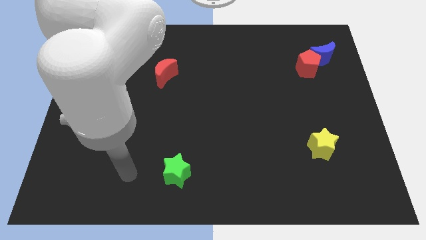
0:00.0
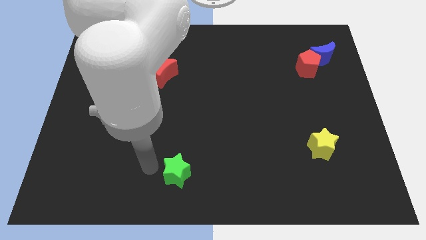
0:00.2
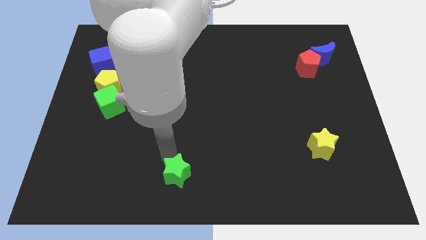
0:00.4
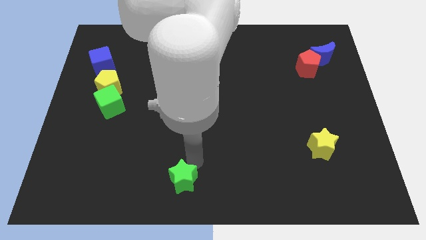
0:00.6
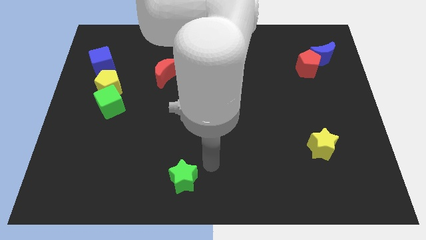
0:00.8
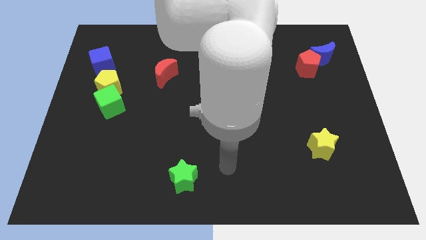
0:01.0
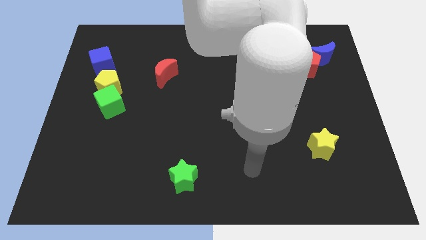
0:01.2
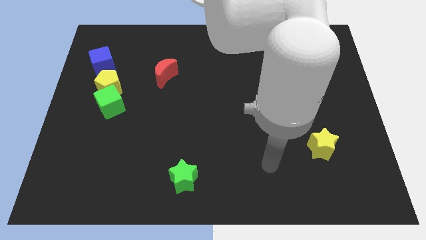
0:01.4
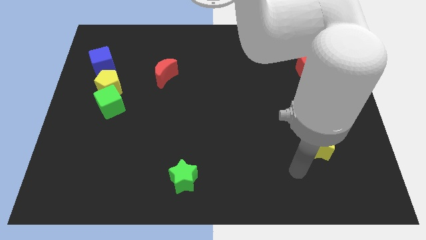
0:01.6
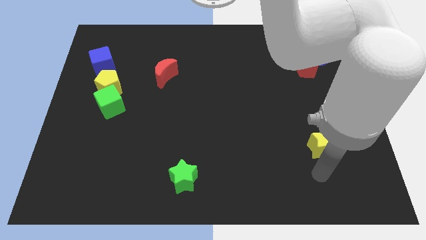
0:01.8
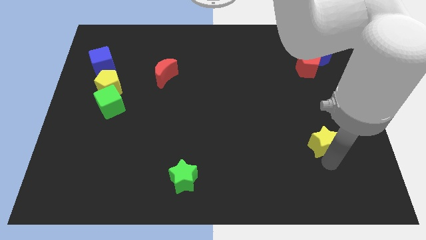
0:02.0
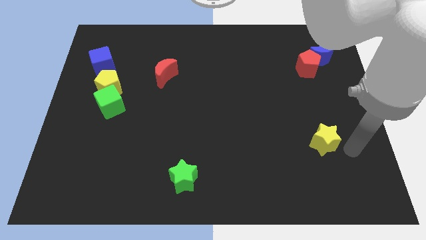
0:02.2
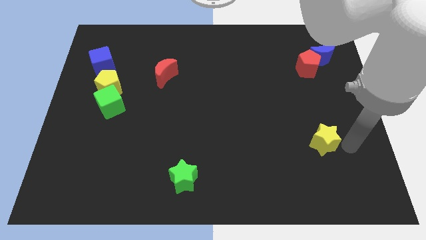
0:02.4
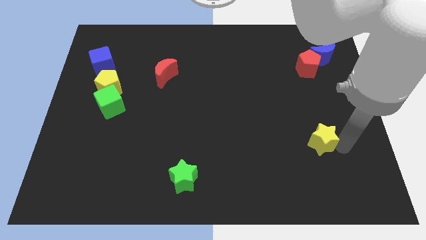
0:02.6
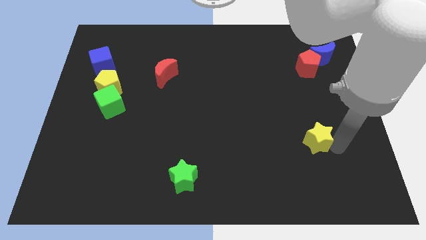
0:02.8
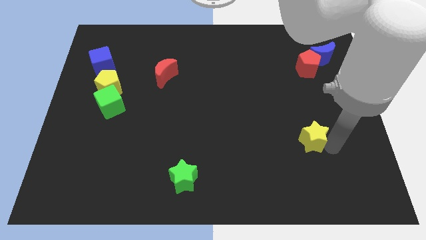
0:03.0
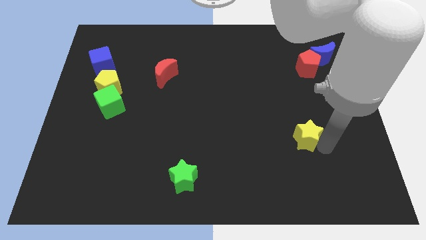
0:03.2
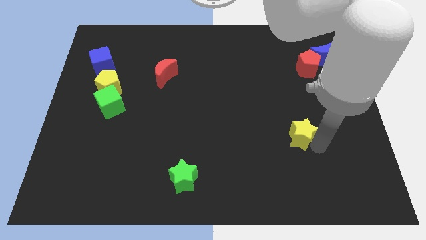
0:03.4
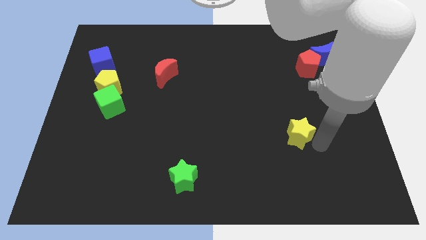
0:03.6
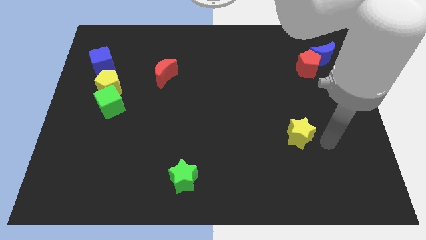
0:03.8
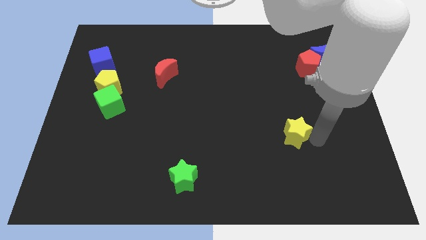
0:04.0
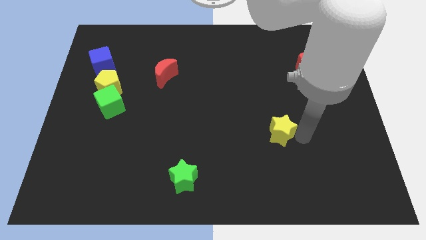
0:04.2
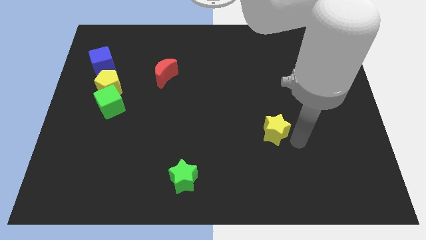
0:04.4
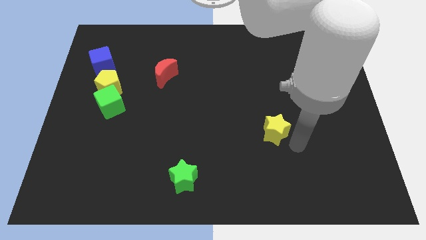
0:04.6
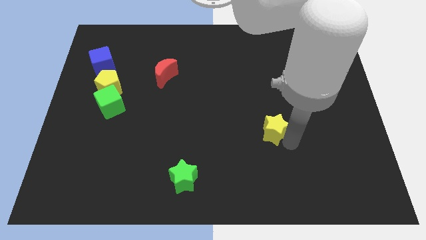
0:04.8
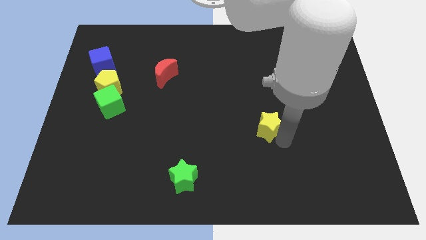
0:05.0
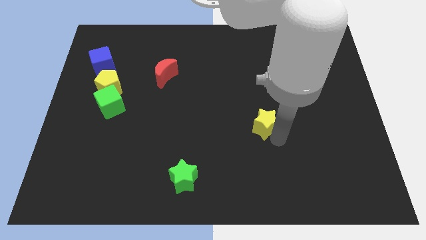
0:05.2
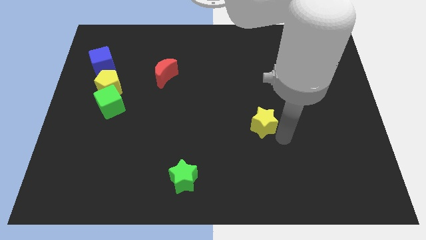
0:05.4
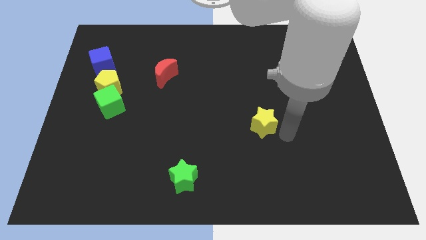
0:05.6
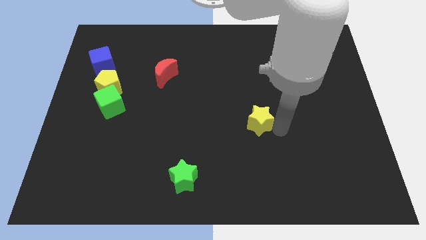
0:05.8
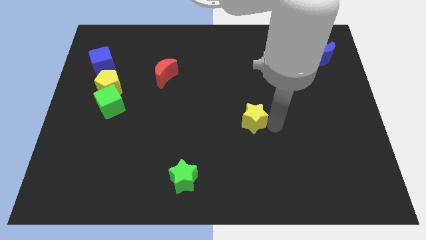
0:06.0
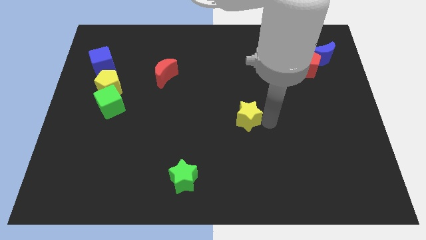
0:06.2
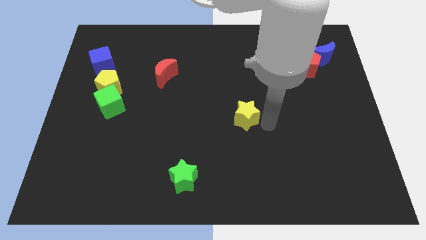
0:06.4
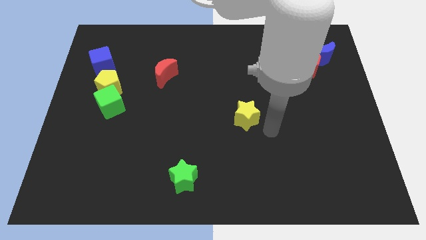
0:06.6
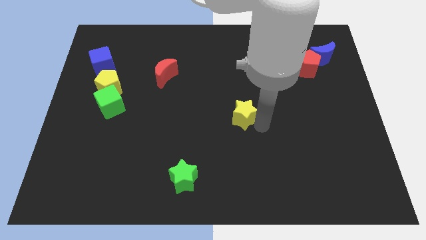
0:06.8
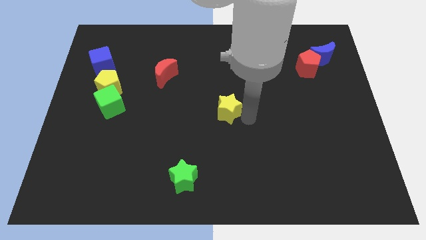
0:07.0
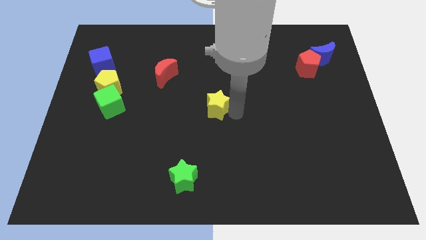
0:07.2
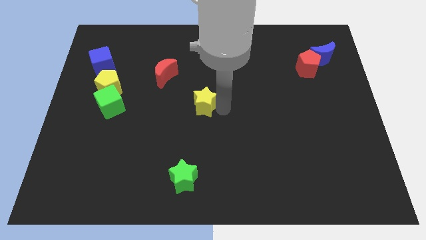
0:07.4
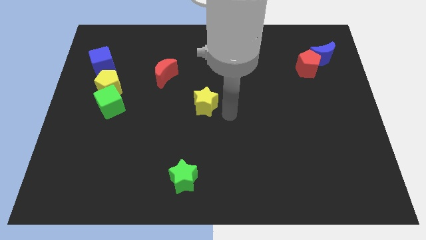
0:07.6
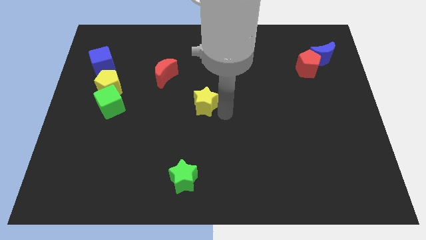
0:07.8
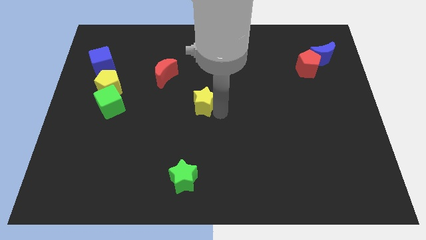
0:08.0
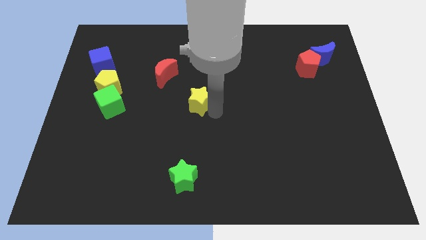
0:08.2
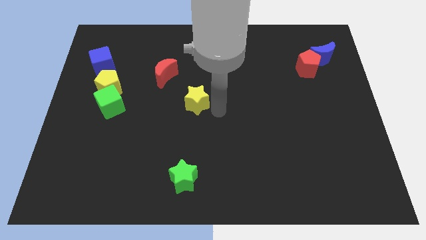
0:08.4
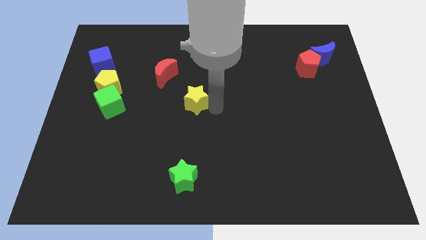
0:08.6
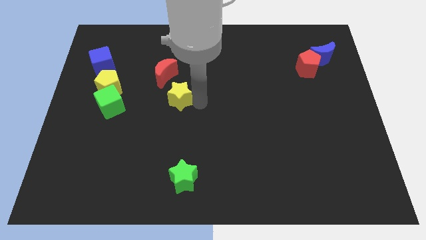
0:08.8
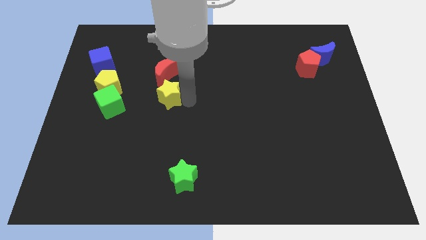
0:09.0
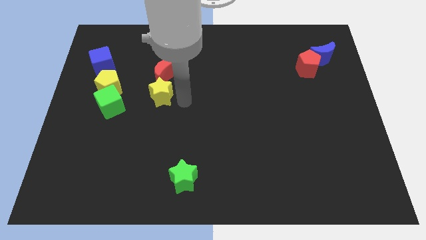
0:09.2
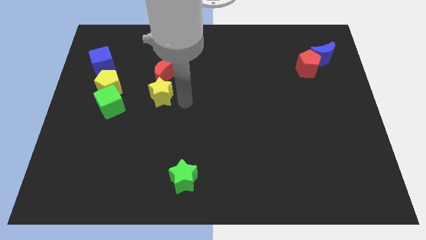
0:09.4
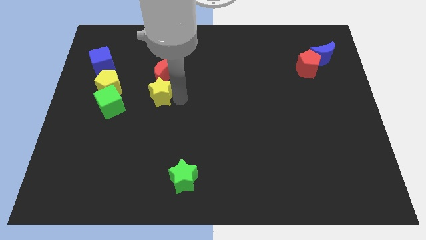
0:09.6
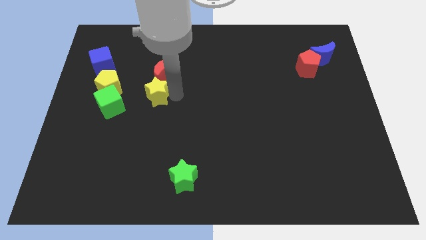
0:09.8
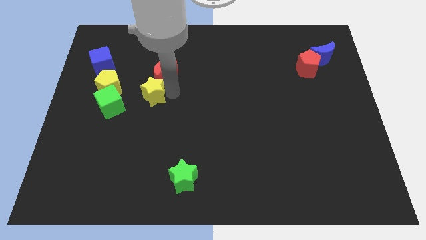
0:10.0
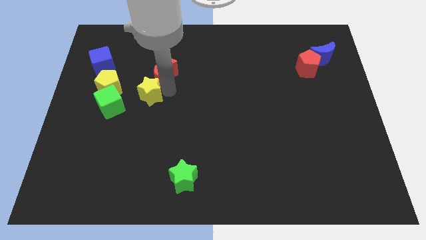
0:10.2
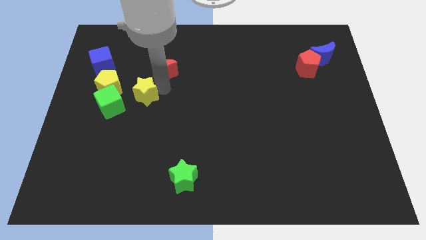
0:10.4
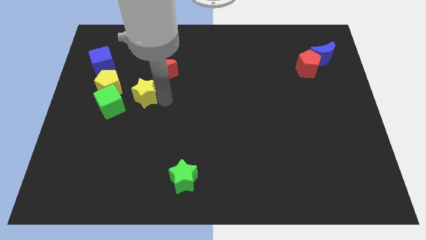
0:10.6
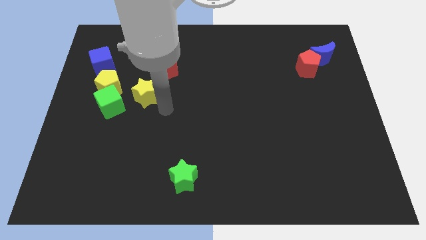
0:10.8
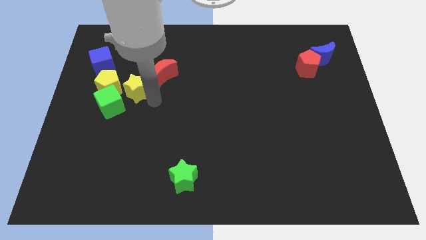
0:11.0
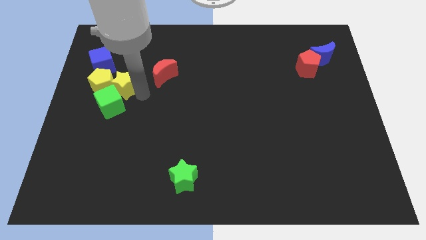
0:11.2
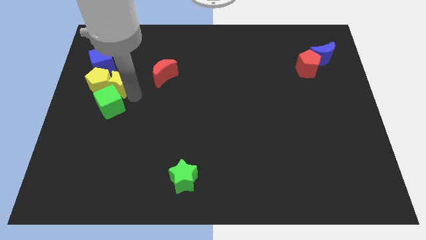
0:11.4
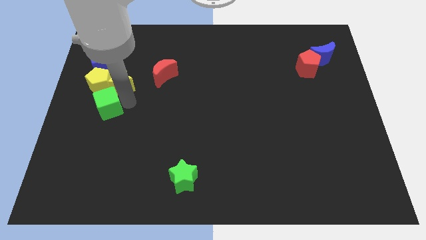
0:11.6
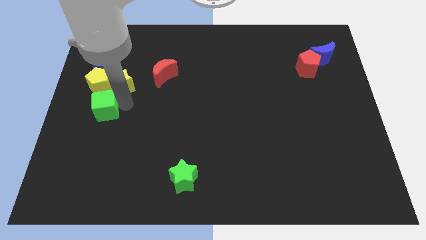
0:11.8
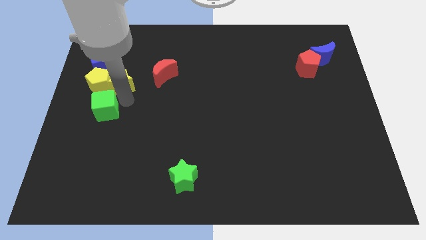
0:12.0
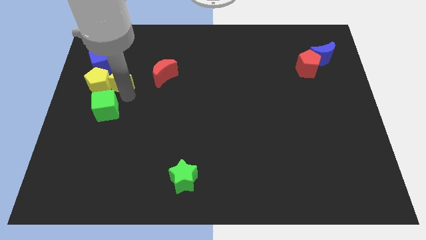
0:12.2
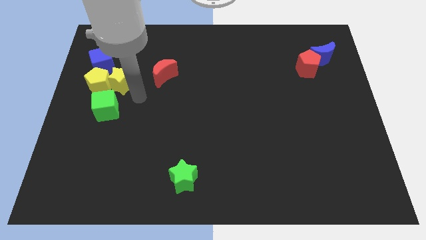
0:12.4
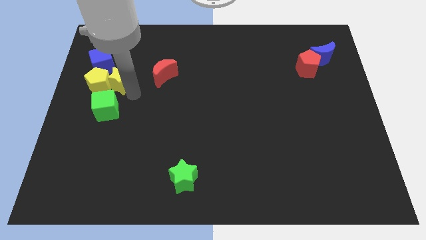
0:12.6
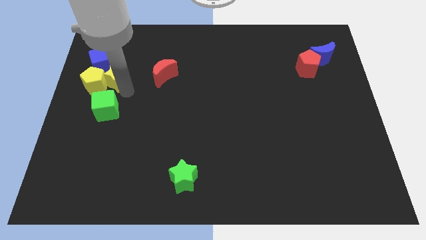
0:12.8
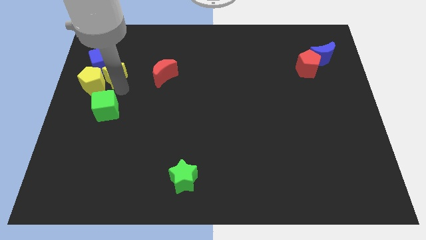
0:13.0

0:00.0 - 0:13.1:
move the yellow star next to the blue cube
